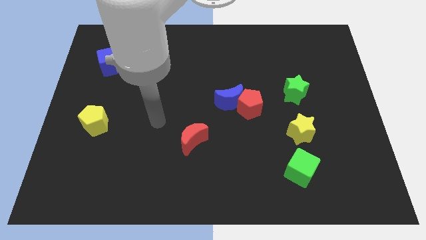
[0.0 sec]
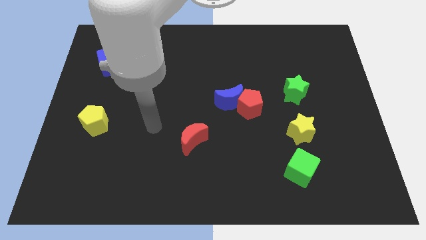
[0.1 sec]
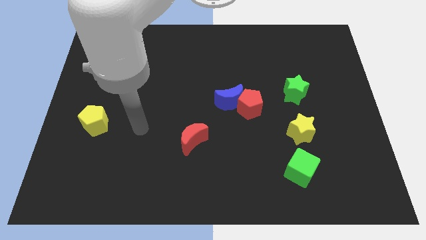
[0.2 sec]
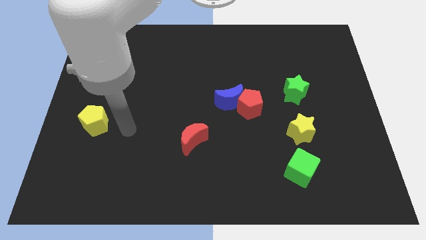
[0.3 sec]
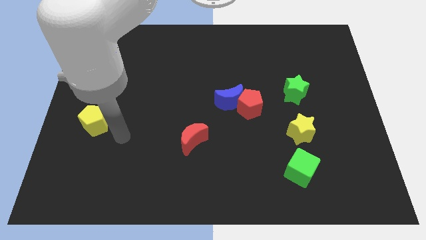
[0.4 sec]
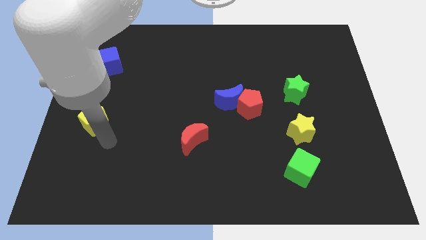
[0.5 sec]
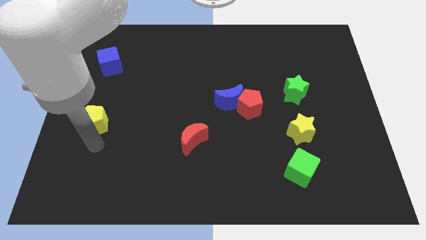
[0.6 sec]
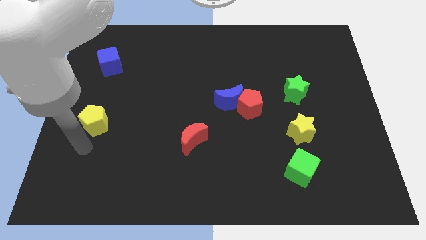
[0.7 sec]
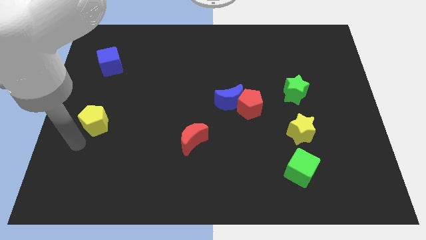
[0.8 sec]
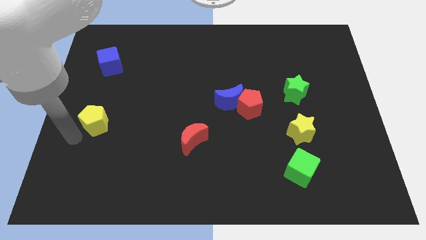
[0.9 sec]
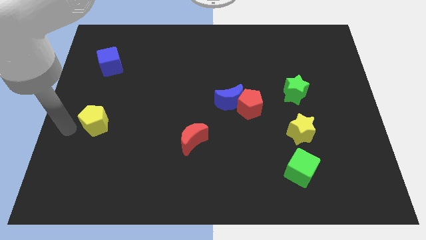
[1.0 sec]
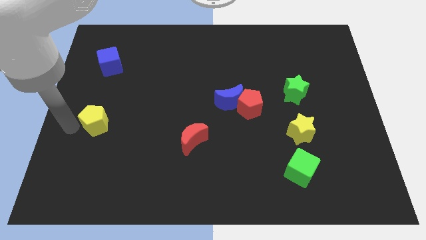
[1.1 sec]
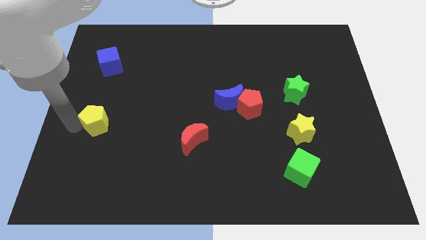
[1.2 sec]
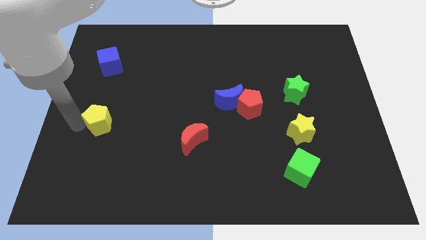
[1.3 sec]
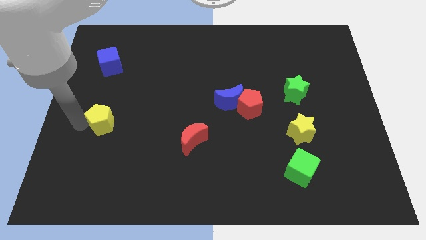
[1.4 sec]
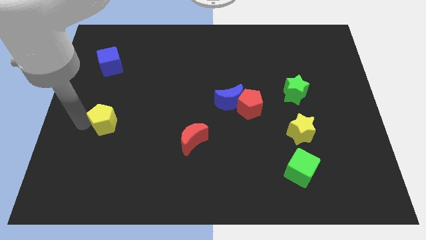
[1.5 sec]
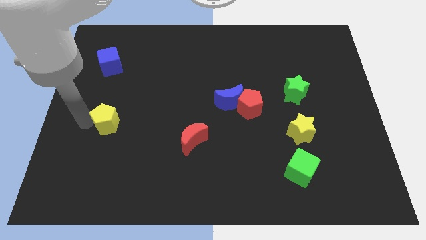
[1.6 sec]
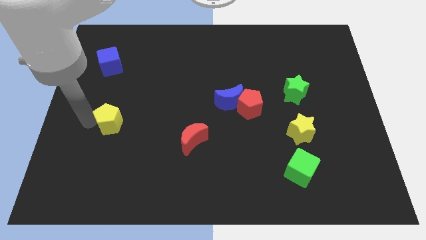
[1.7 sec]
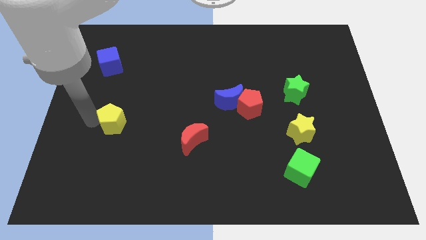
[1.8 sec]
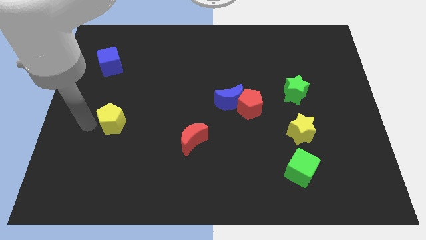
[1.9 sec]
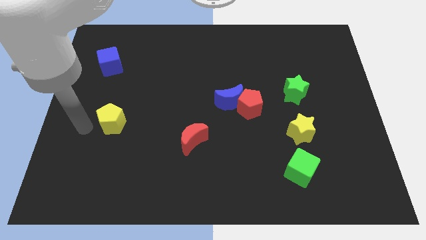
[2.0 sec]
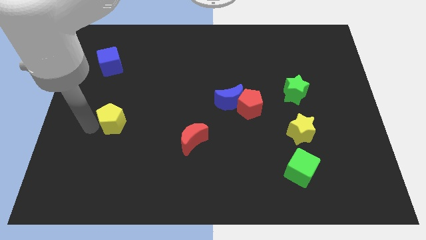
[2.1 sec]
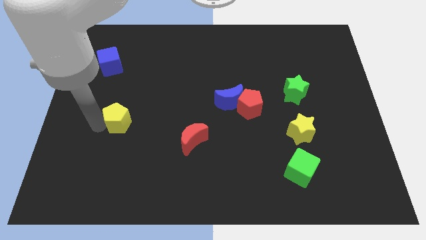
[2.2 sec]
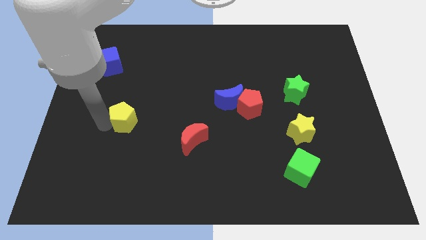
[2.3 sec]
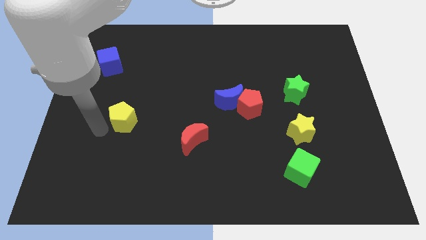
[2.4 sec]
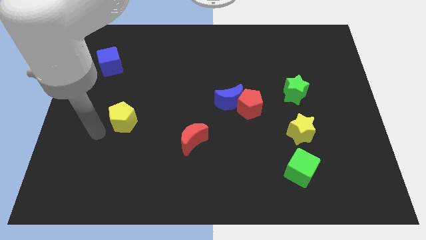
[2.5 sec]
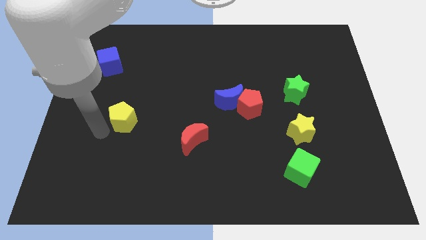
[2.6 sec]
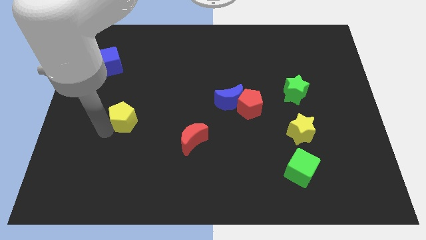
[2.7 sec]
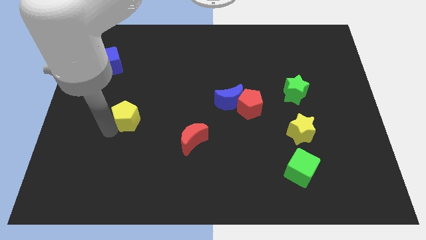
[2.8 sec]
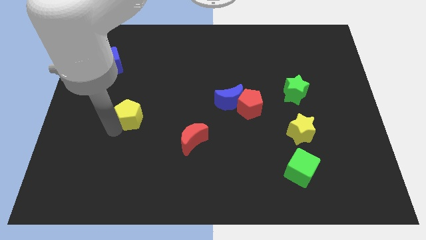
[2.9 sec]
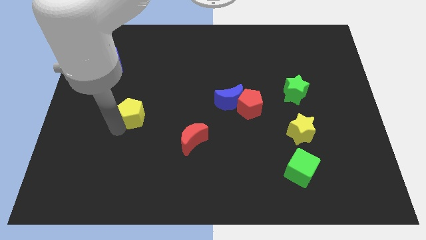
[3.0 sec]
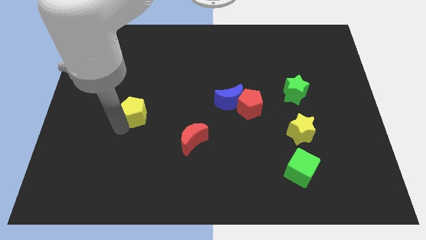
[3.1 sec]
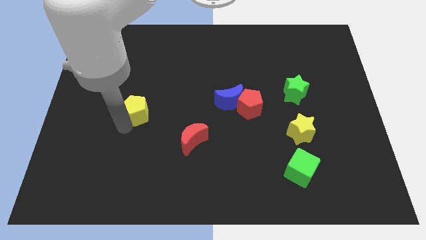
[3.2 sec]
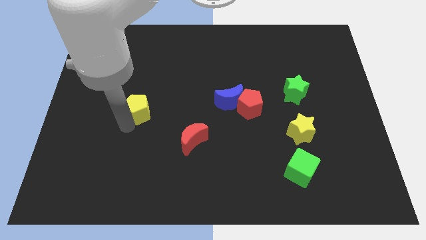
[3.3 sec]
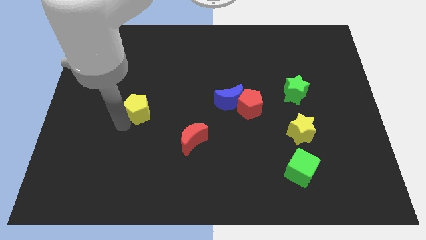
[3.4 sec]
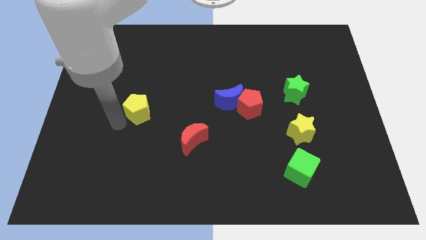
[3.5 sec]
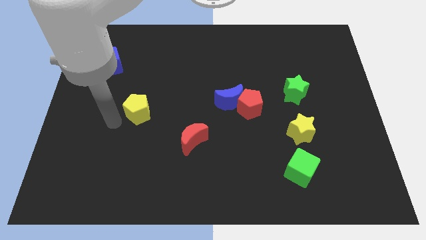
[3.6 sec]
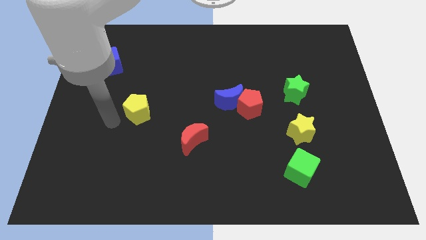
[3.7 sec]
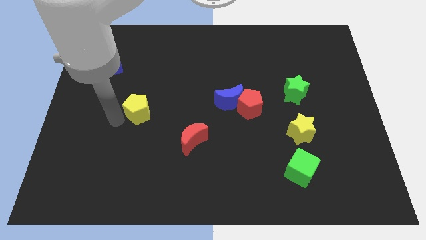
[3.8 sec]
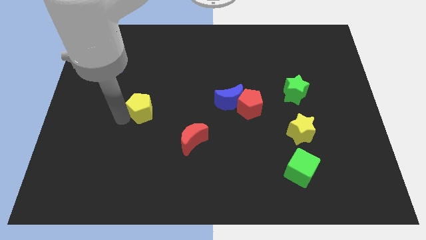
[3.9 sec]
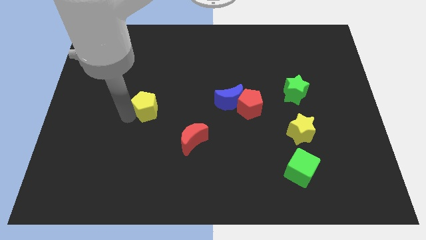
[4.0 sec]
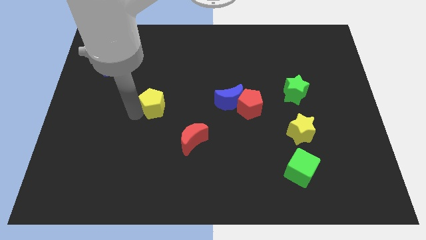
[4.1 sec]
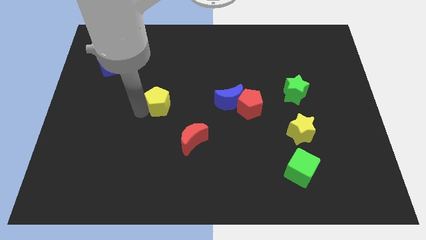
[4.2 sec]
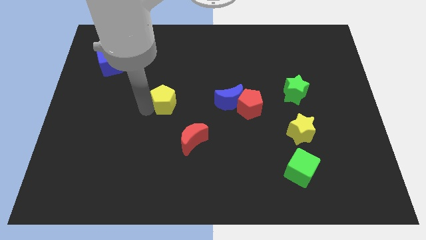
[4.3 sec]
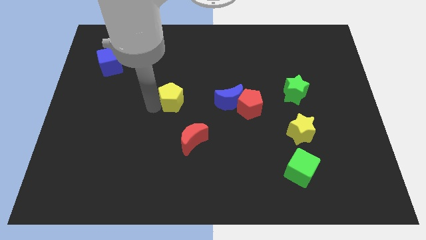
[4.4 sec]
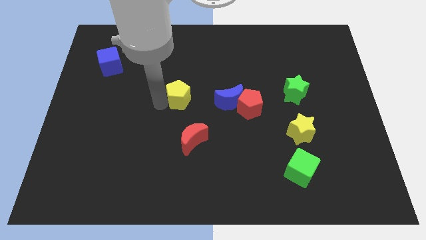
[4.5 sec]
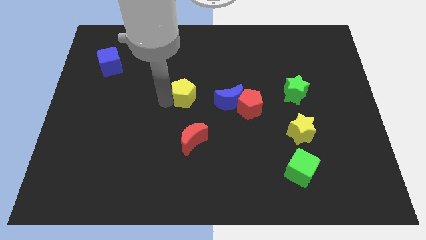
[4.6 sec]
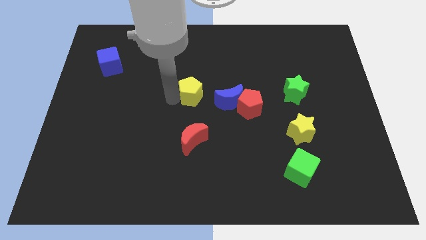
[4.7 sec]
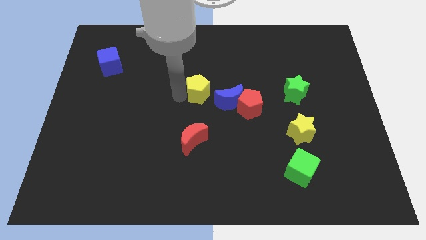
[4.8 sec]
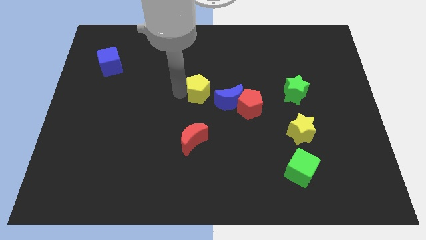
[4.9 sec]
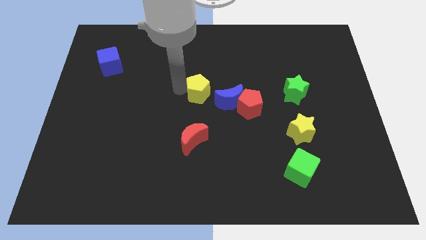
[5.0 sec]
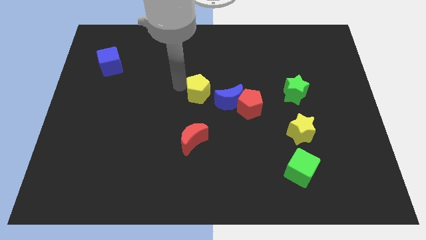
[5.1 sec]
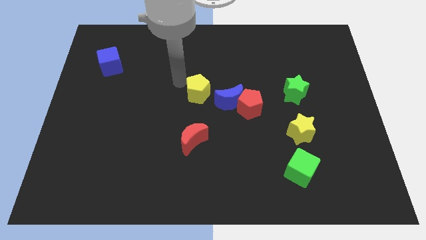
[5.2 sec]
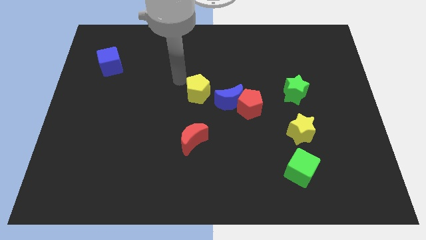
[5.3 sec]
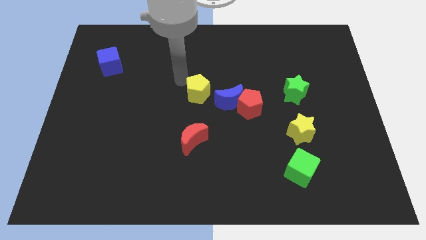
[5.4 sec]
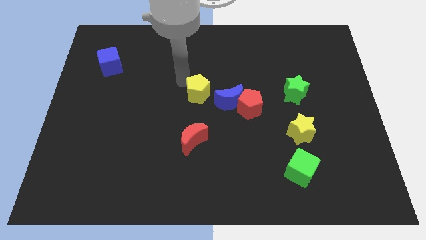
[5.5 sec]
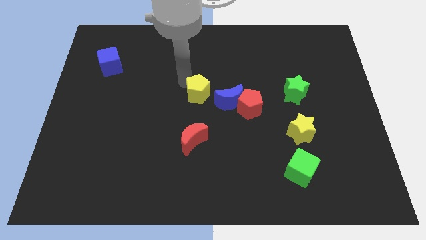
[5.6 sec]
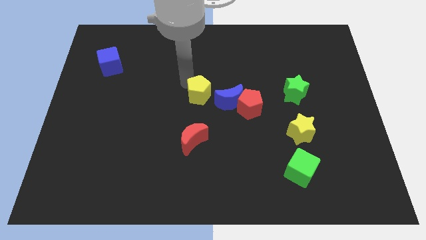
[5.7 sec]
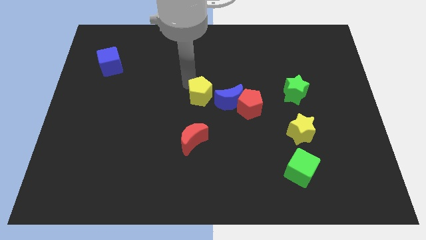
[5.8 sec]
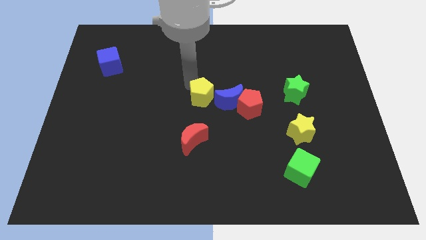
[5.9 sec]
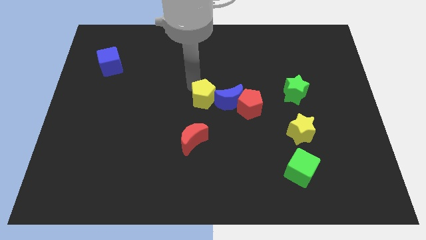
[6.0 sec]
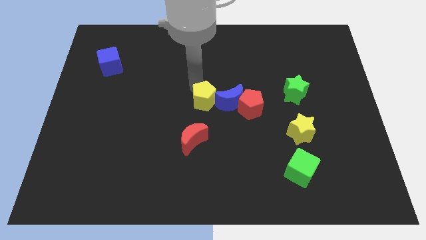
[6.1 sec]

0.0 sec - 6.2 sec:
push the yellow pentagon next to the blue moon

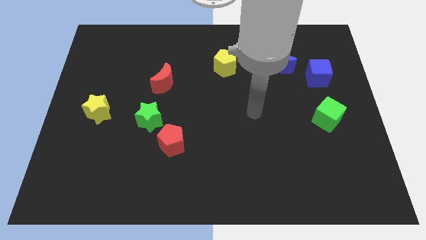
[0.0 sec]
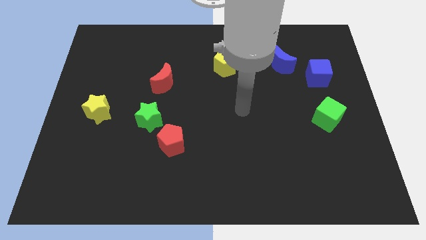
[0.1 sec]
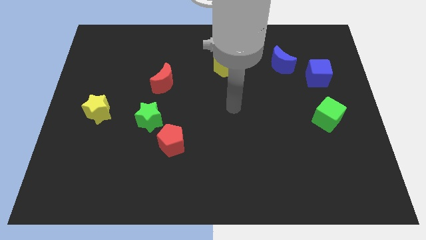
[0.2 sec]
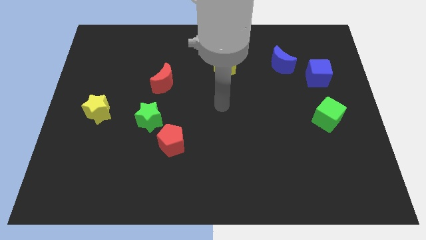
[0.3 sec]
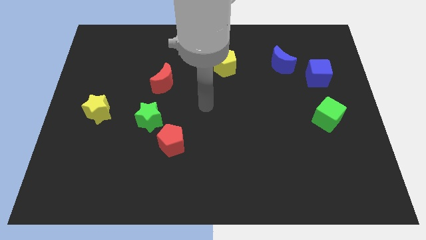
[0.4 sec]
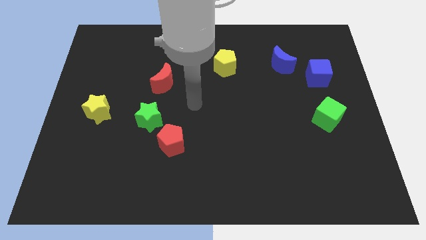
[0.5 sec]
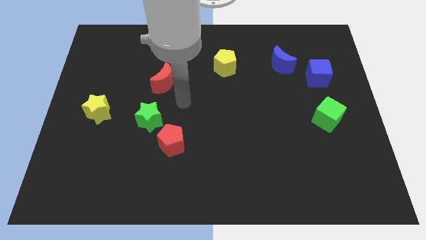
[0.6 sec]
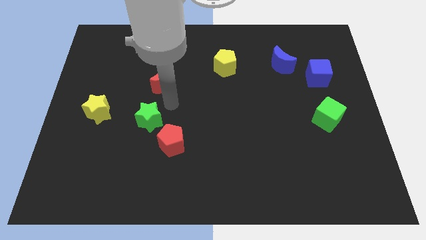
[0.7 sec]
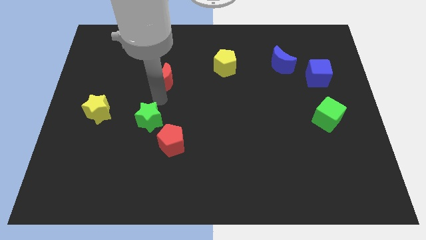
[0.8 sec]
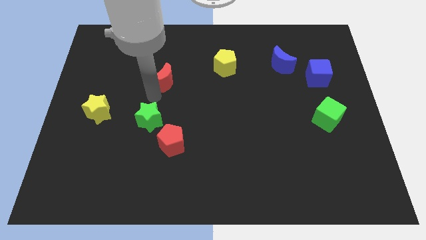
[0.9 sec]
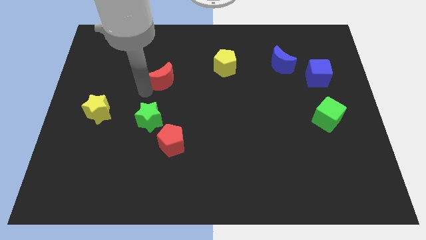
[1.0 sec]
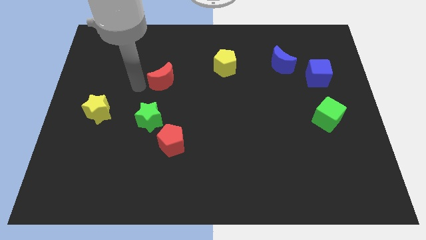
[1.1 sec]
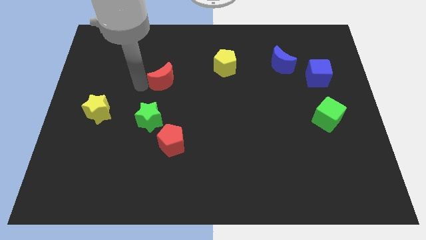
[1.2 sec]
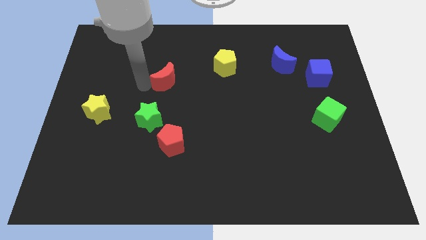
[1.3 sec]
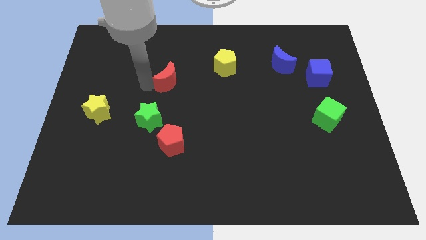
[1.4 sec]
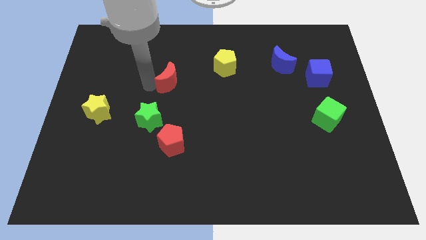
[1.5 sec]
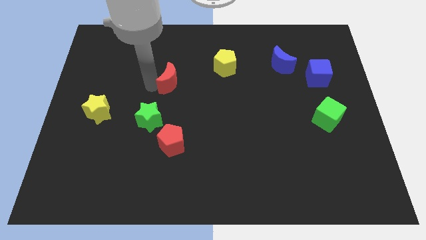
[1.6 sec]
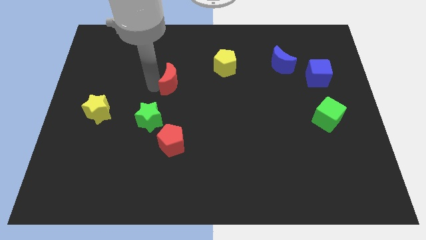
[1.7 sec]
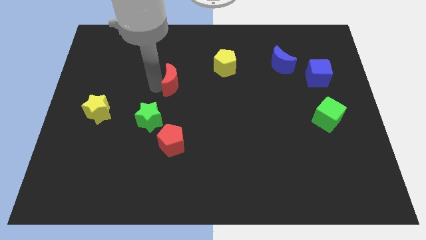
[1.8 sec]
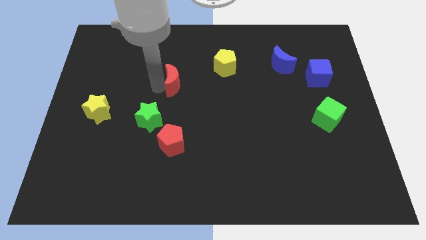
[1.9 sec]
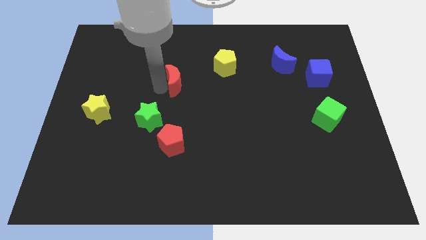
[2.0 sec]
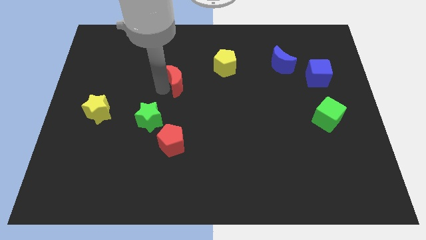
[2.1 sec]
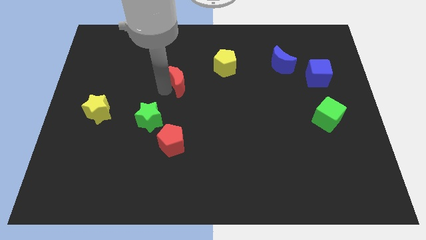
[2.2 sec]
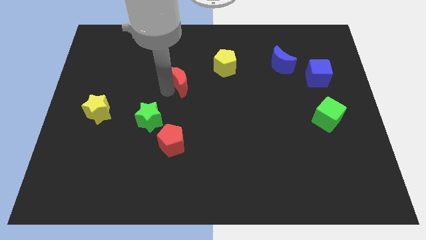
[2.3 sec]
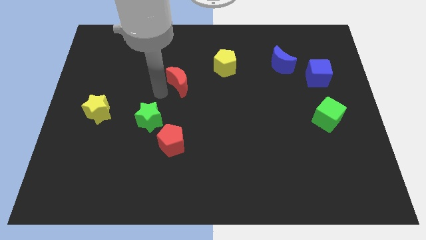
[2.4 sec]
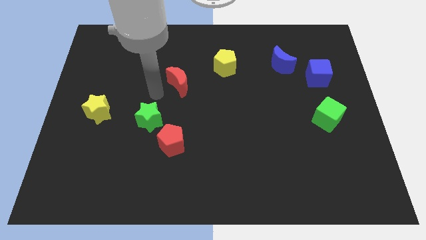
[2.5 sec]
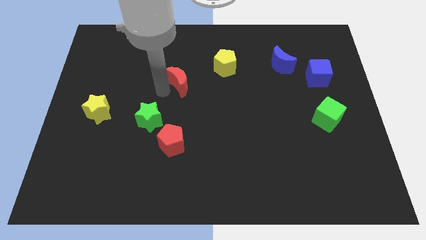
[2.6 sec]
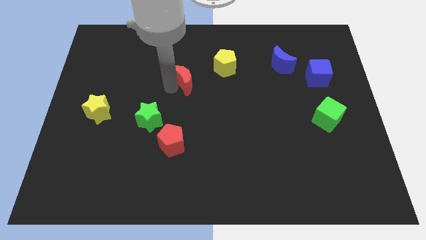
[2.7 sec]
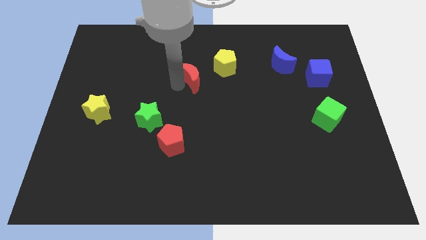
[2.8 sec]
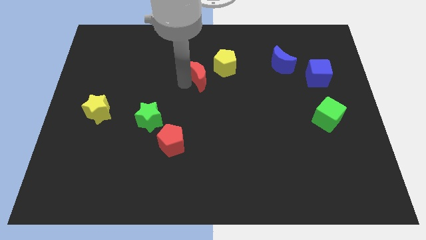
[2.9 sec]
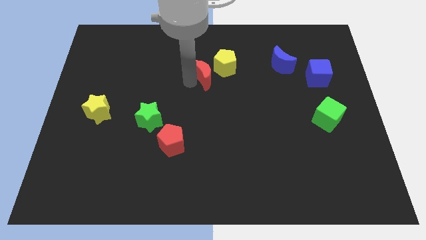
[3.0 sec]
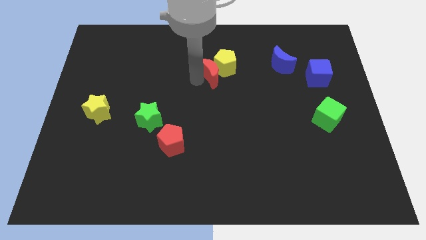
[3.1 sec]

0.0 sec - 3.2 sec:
push the red moon to the yellow pentagon
